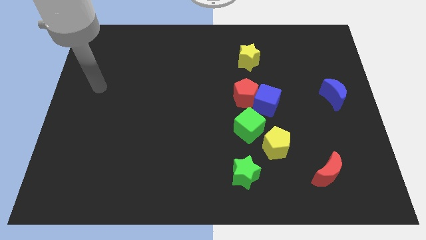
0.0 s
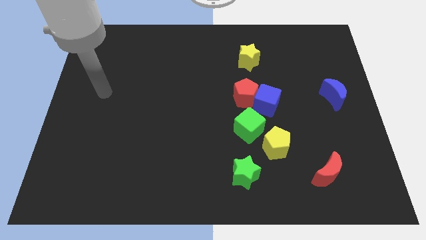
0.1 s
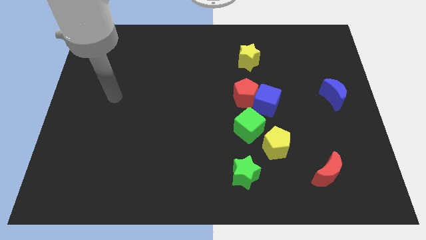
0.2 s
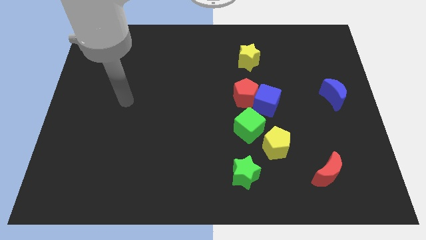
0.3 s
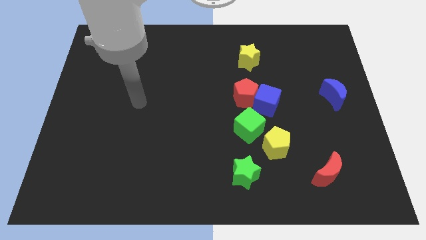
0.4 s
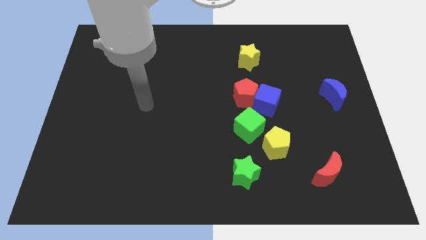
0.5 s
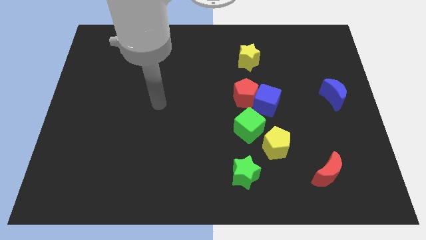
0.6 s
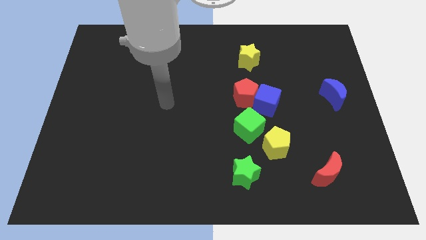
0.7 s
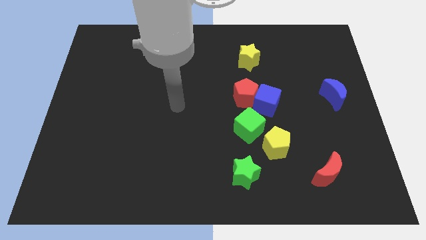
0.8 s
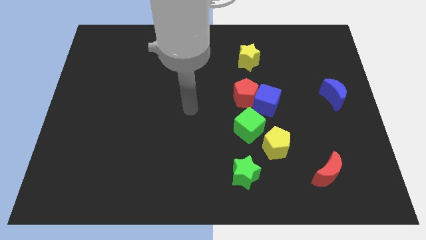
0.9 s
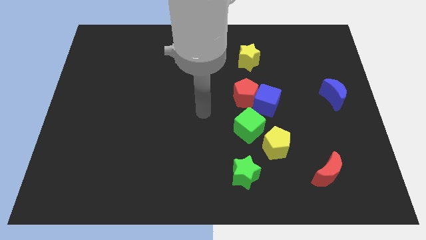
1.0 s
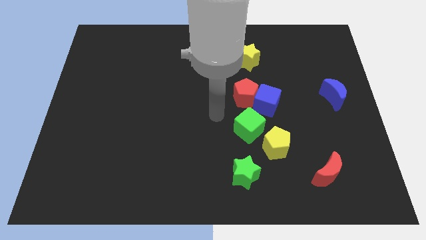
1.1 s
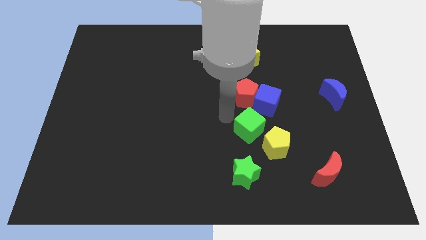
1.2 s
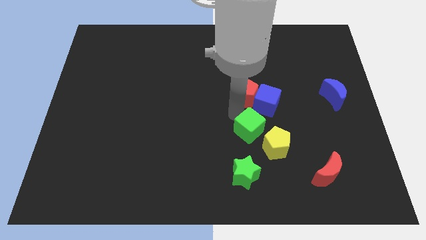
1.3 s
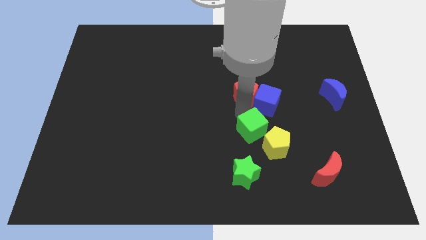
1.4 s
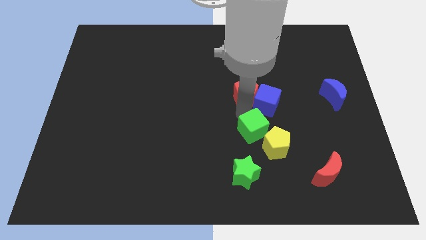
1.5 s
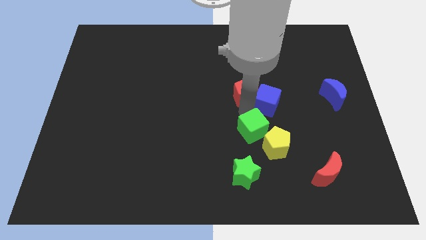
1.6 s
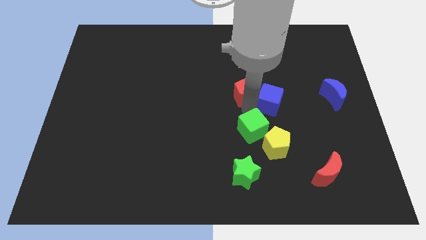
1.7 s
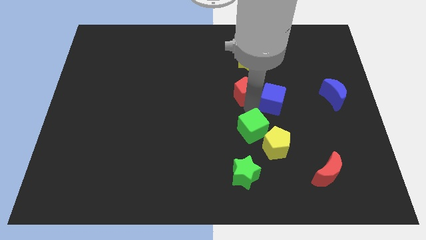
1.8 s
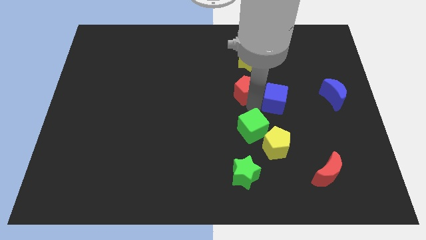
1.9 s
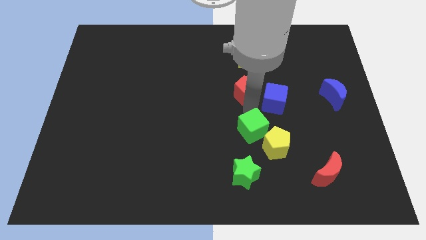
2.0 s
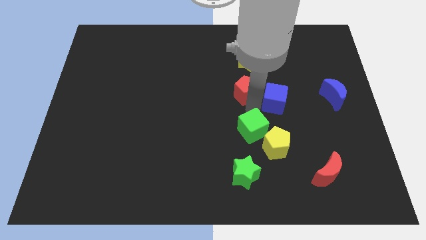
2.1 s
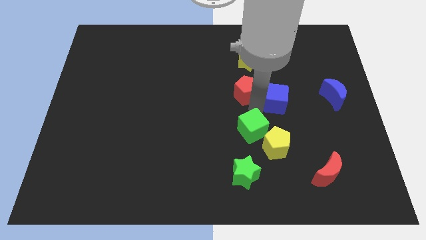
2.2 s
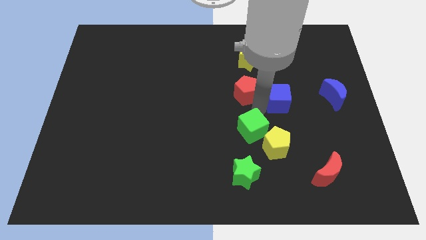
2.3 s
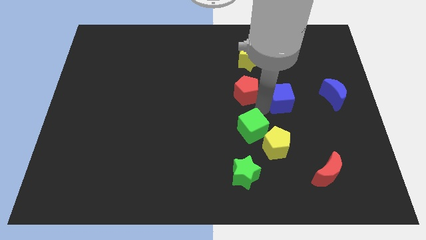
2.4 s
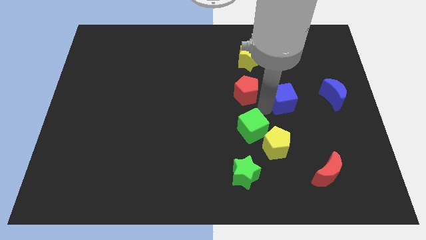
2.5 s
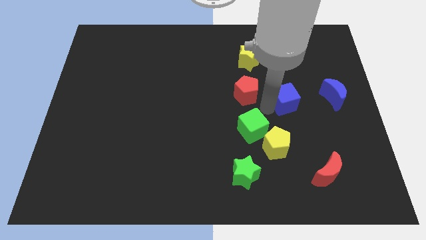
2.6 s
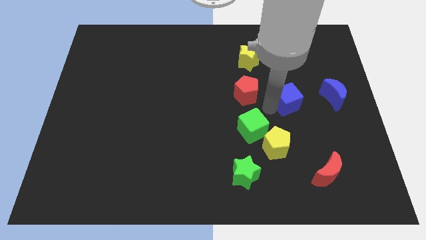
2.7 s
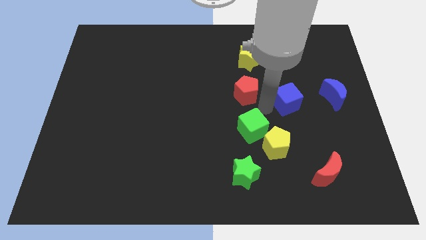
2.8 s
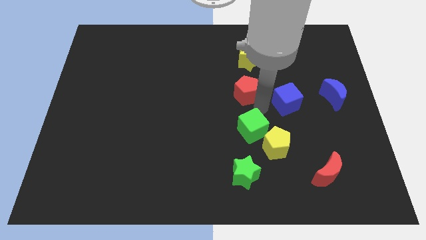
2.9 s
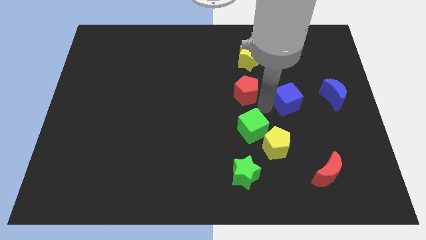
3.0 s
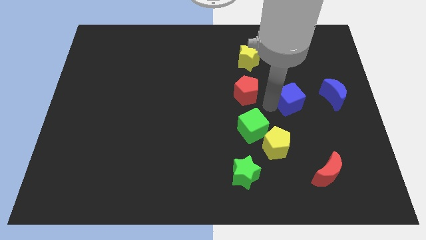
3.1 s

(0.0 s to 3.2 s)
separate the blue cube from the red pentagon and green cube

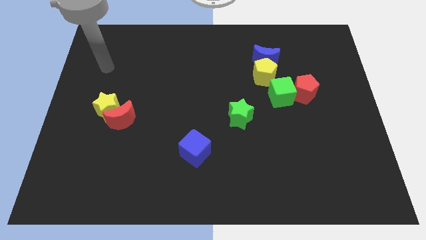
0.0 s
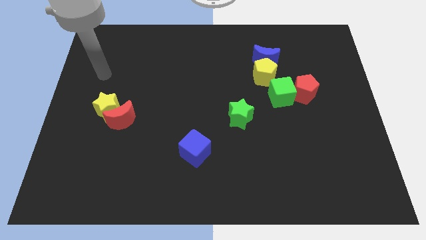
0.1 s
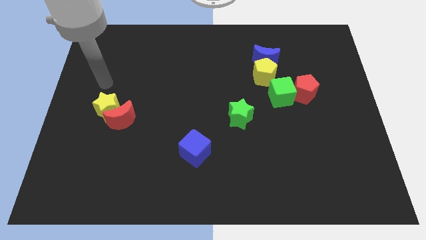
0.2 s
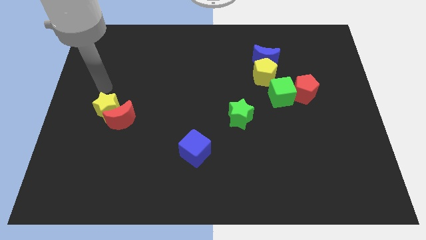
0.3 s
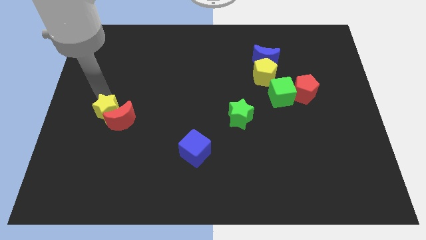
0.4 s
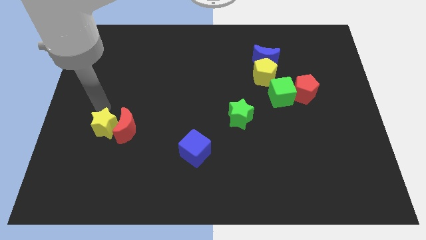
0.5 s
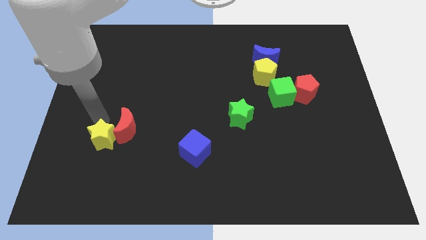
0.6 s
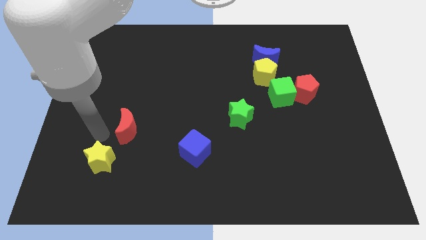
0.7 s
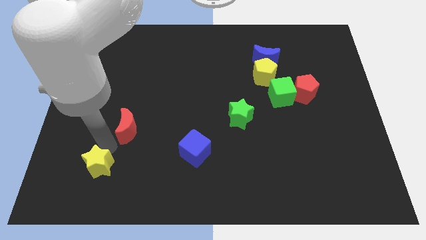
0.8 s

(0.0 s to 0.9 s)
separate the red moon from the yellow star

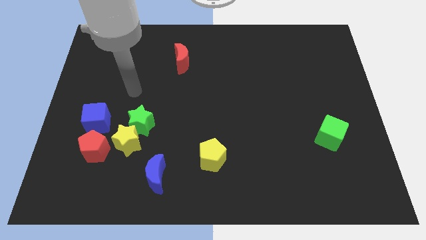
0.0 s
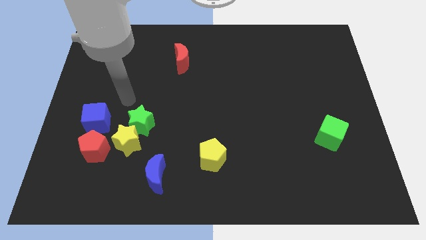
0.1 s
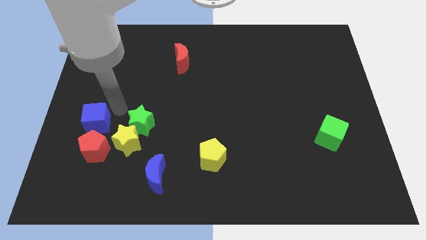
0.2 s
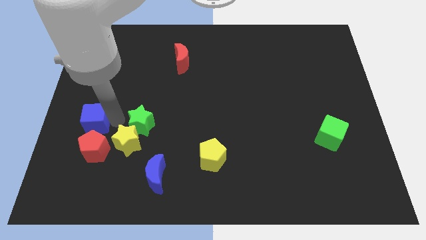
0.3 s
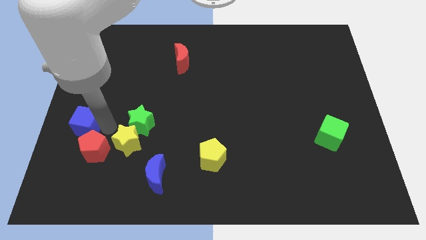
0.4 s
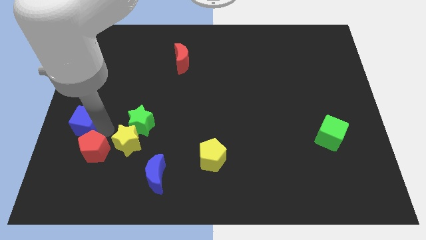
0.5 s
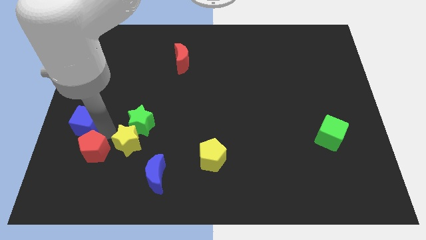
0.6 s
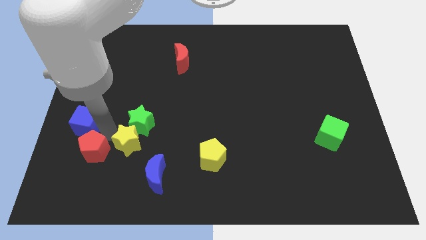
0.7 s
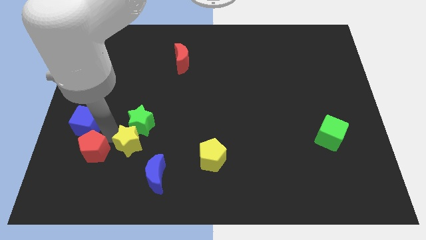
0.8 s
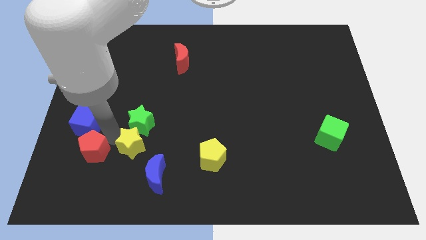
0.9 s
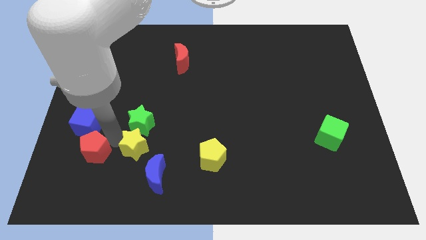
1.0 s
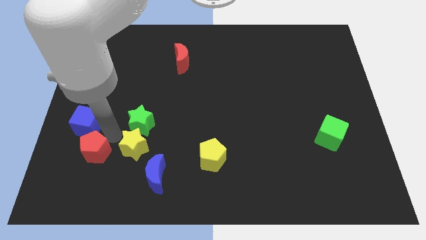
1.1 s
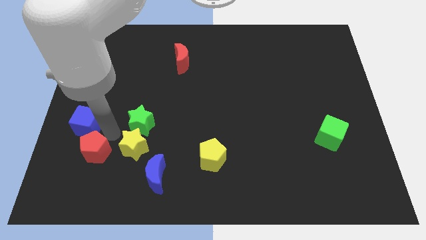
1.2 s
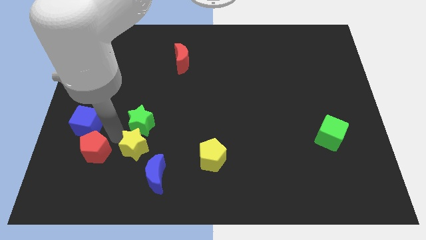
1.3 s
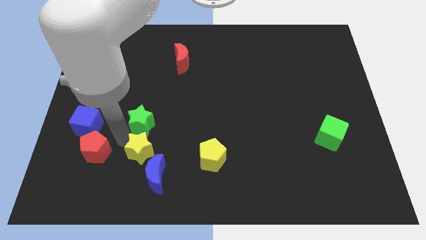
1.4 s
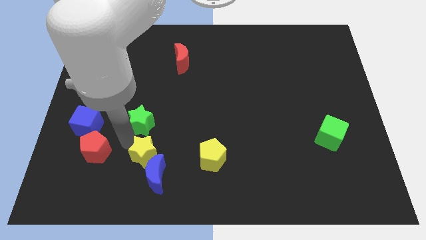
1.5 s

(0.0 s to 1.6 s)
move the yellow star away from the green star, red pentagon, and blue cube

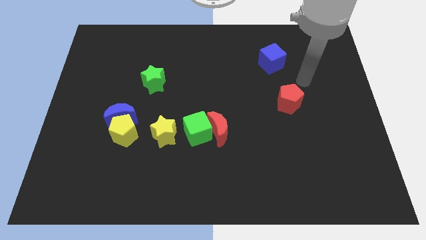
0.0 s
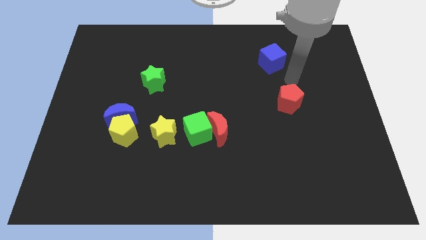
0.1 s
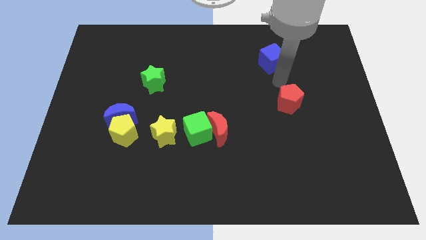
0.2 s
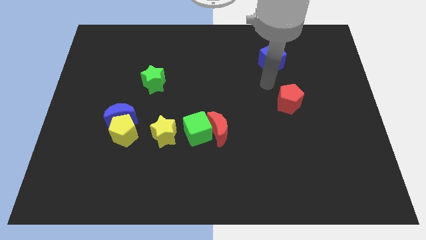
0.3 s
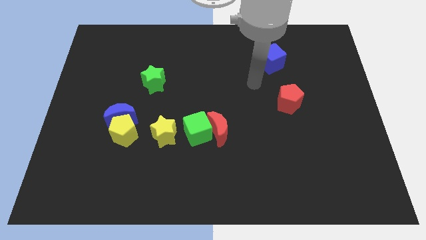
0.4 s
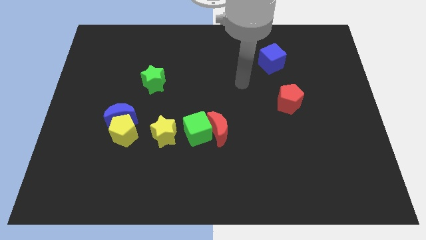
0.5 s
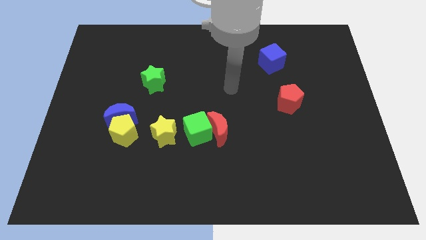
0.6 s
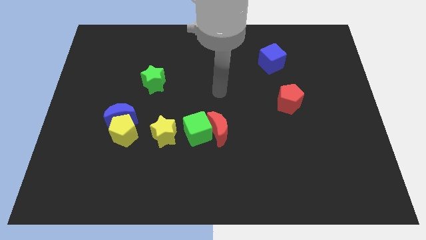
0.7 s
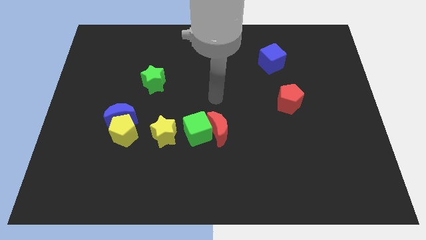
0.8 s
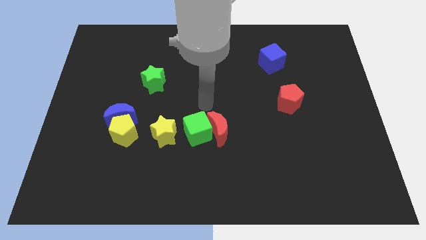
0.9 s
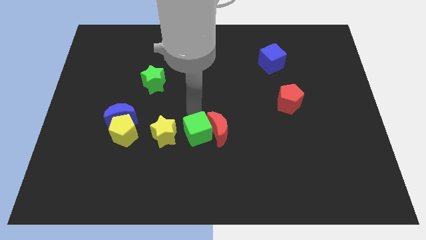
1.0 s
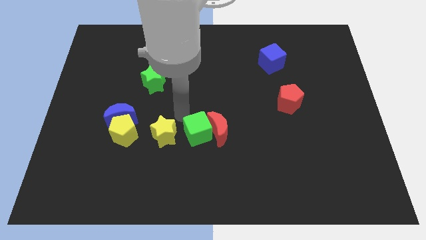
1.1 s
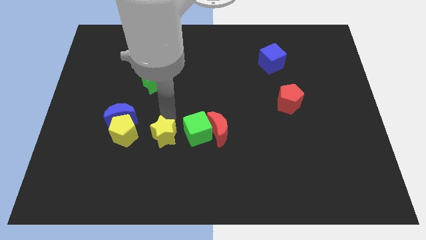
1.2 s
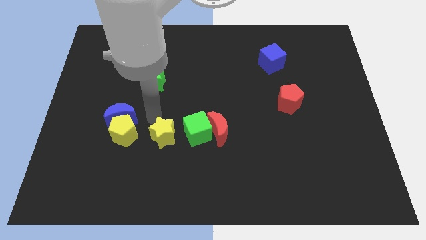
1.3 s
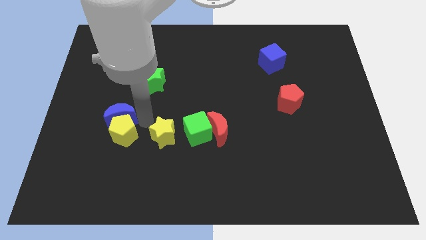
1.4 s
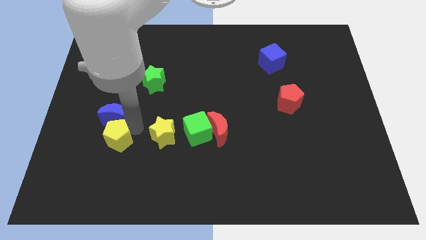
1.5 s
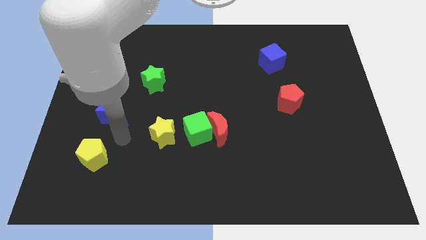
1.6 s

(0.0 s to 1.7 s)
separate the blue moon from the yellow pentagon

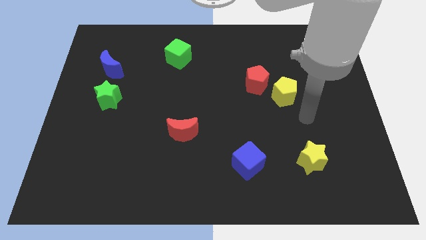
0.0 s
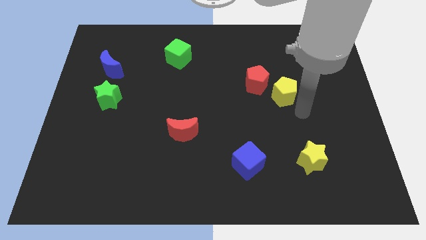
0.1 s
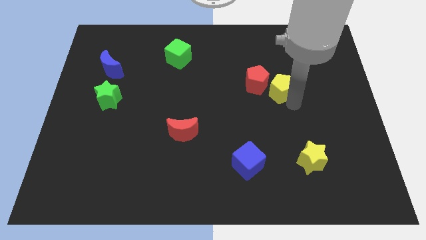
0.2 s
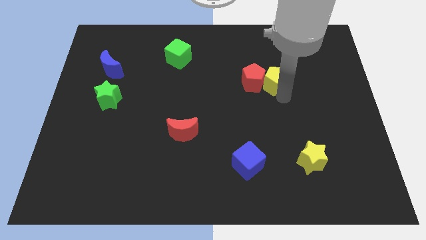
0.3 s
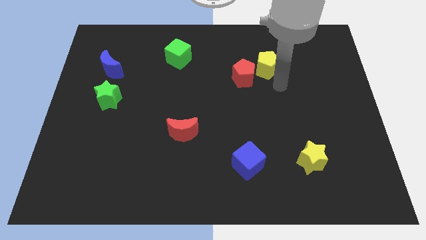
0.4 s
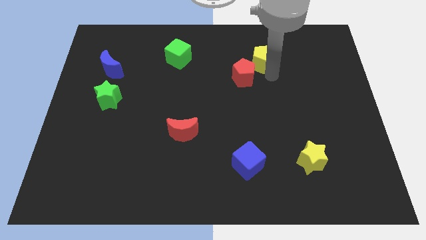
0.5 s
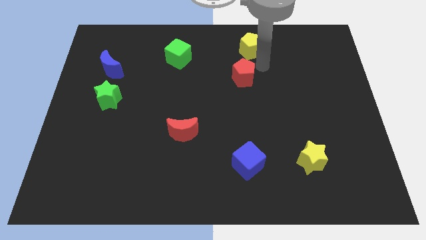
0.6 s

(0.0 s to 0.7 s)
move the red pentagon away from the yellow pentagon

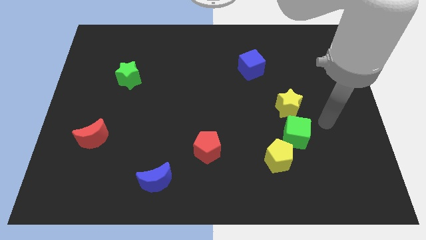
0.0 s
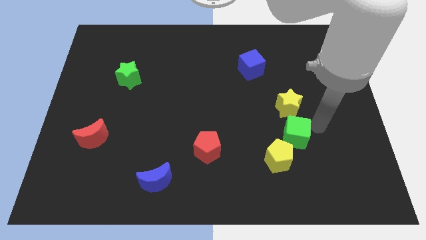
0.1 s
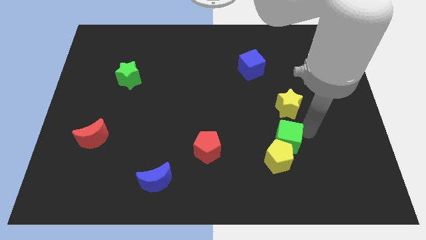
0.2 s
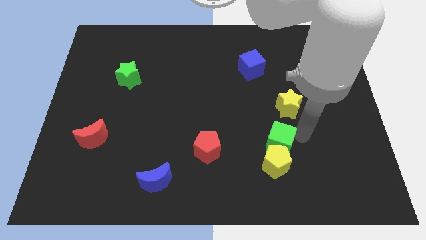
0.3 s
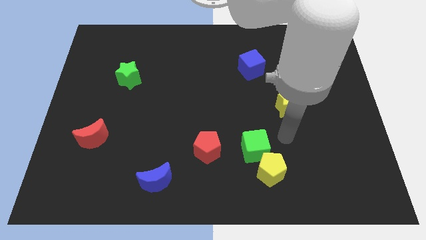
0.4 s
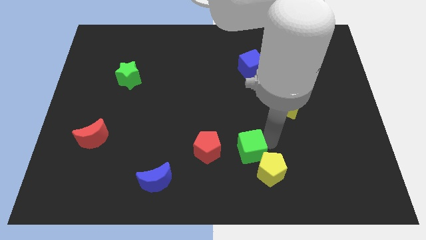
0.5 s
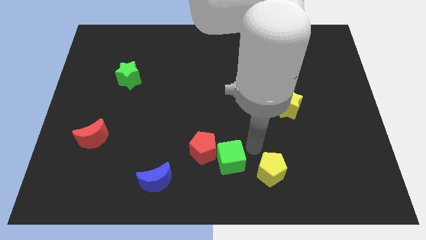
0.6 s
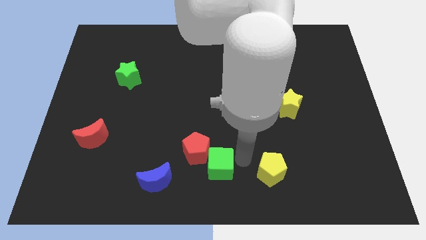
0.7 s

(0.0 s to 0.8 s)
separate the yellow pentagon from the green cube

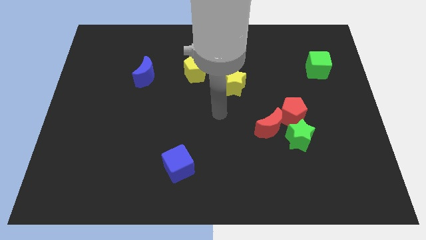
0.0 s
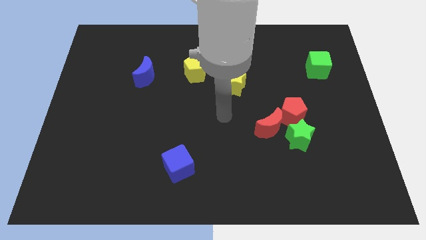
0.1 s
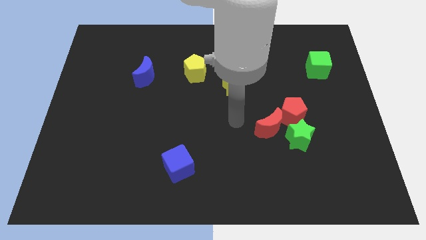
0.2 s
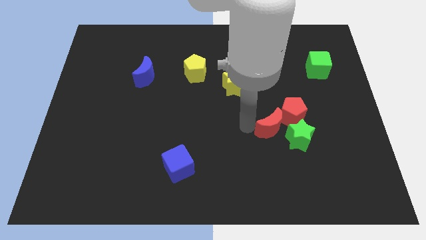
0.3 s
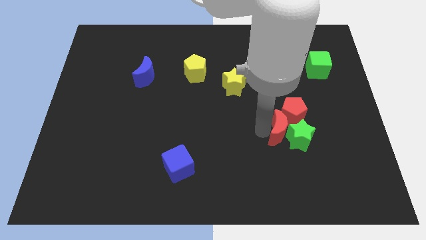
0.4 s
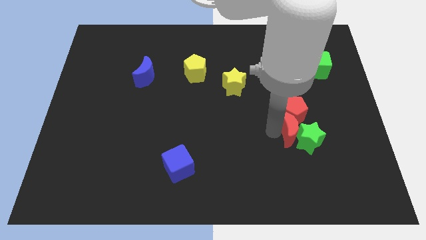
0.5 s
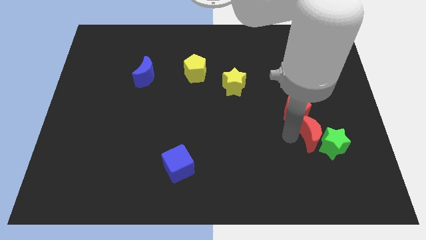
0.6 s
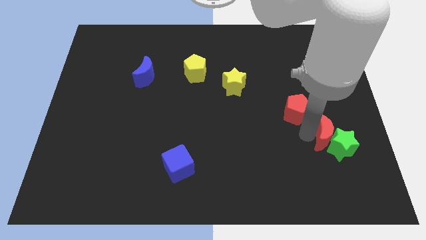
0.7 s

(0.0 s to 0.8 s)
pull the red pentagon apart from the red moon and green star
